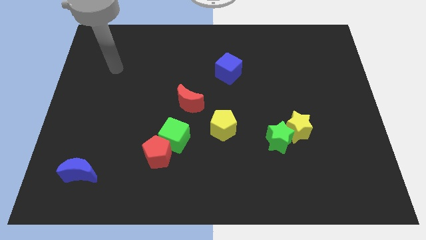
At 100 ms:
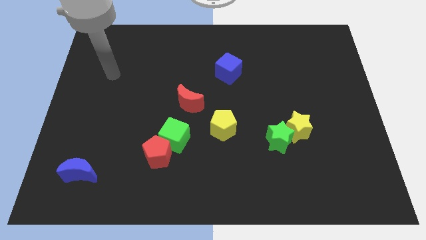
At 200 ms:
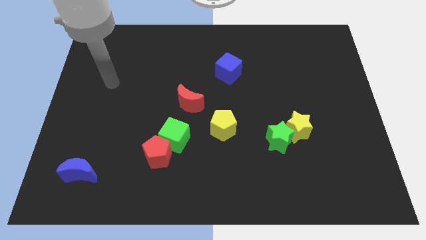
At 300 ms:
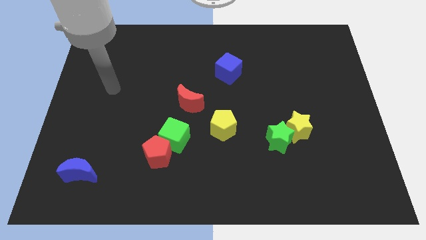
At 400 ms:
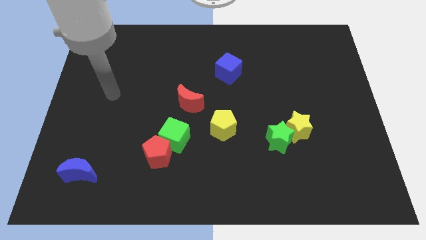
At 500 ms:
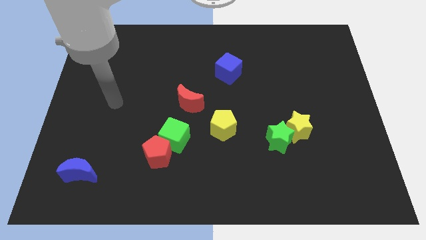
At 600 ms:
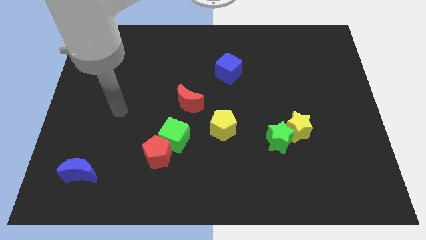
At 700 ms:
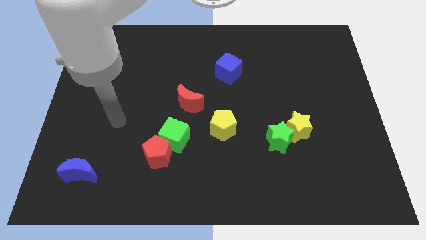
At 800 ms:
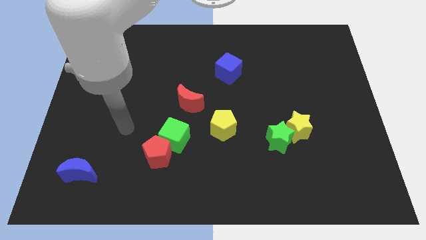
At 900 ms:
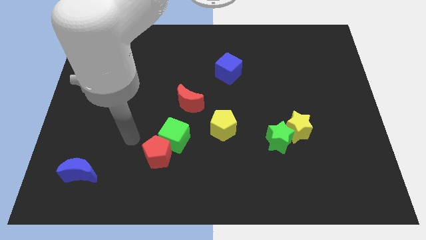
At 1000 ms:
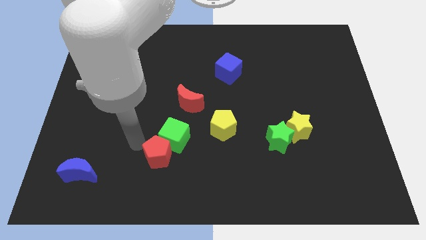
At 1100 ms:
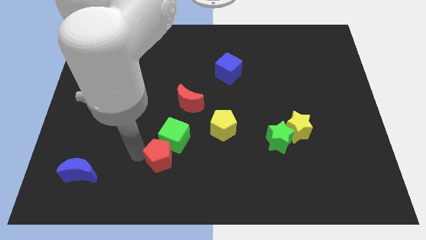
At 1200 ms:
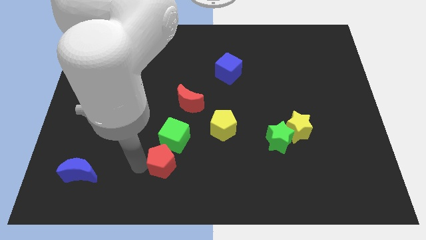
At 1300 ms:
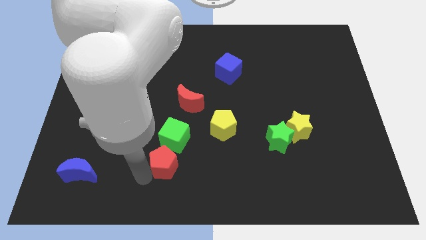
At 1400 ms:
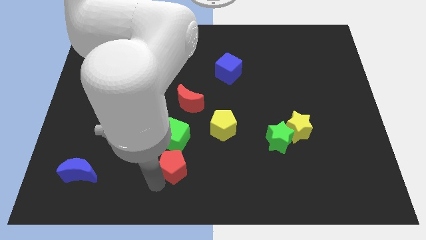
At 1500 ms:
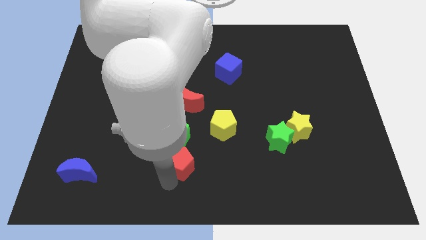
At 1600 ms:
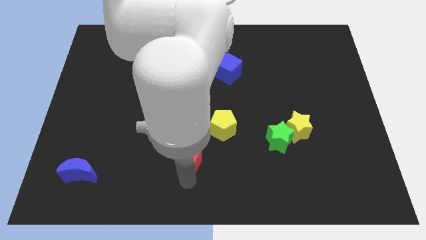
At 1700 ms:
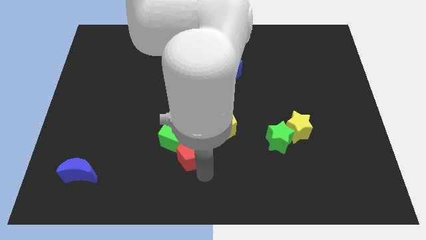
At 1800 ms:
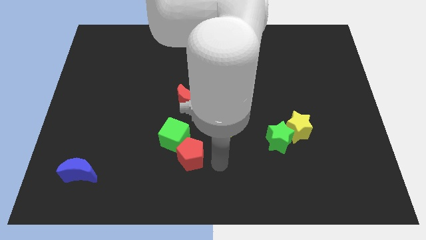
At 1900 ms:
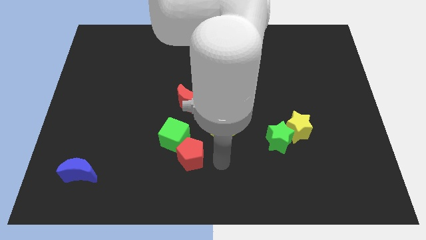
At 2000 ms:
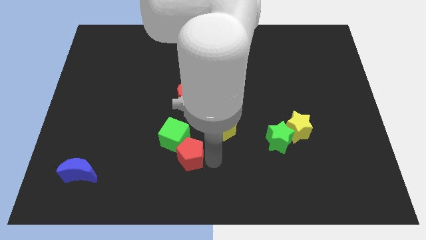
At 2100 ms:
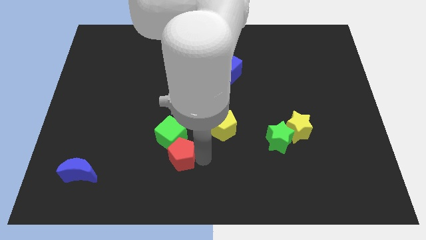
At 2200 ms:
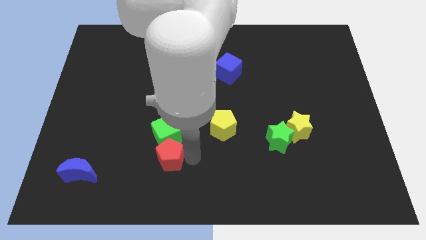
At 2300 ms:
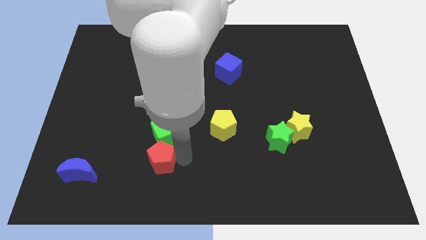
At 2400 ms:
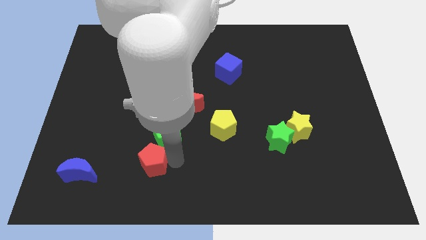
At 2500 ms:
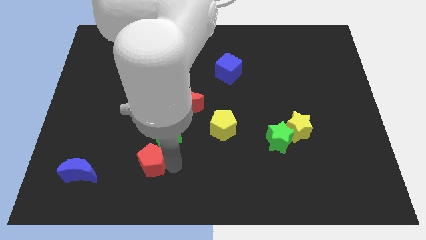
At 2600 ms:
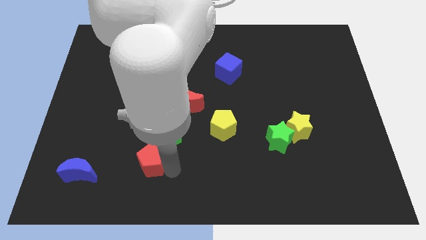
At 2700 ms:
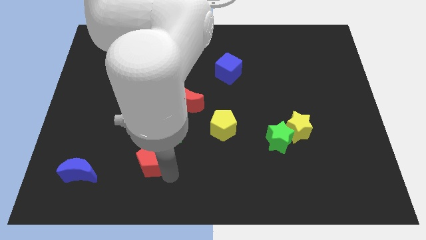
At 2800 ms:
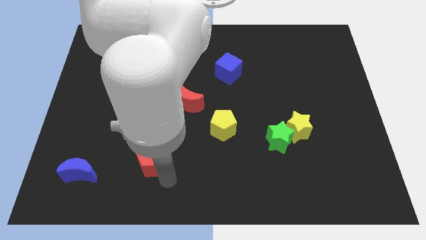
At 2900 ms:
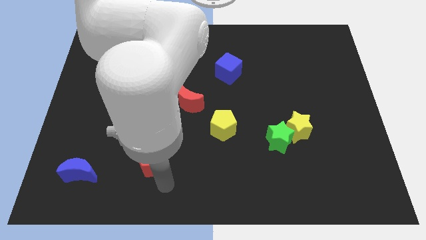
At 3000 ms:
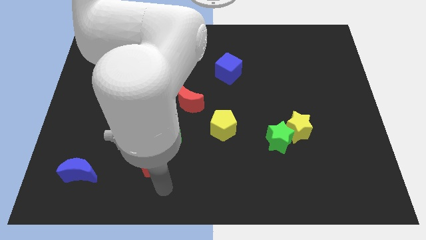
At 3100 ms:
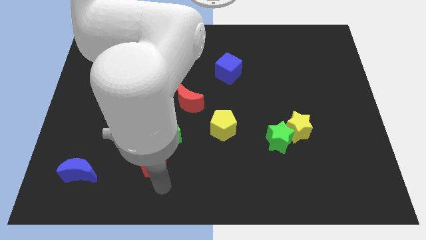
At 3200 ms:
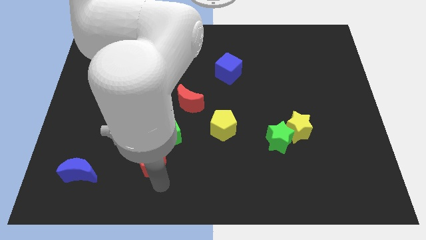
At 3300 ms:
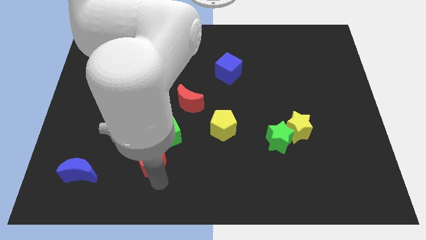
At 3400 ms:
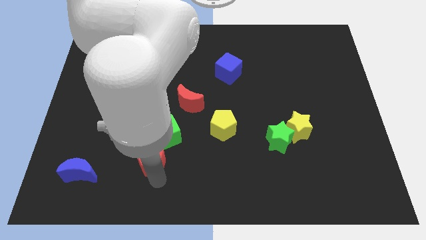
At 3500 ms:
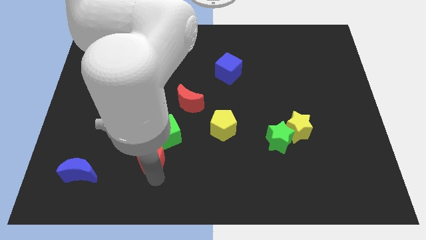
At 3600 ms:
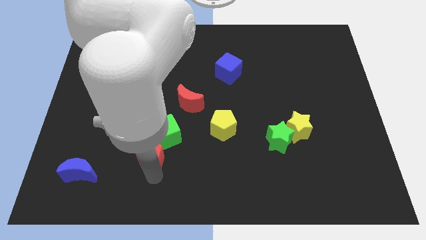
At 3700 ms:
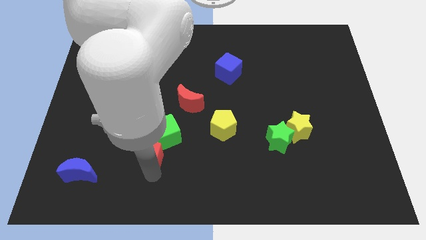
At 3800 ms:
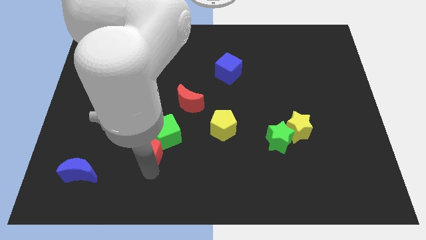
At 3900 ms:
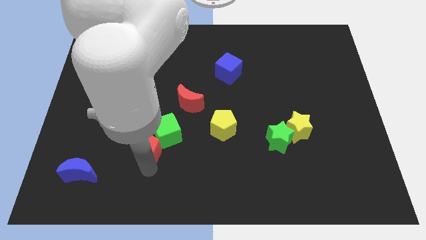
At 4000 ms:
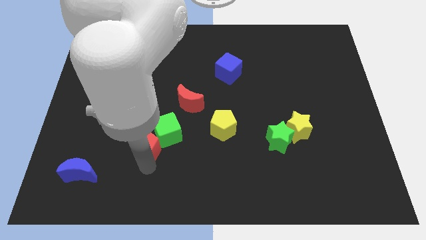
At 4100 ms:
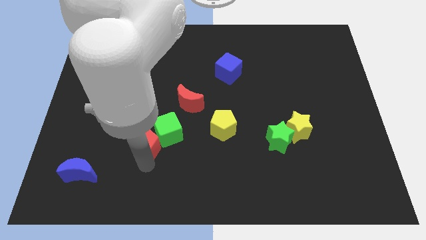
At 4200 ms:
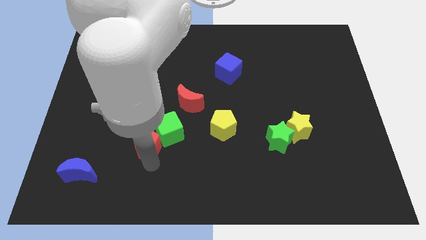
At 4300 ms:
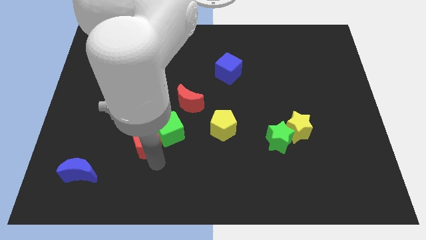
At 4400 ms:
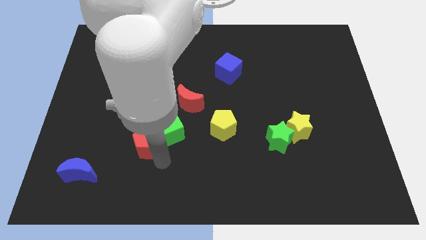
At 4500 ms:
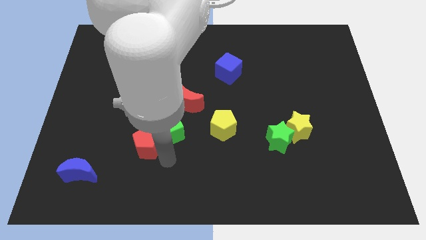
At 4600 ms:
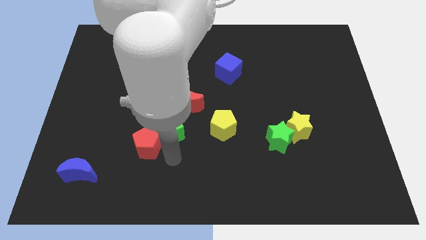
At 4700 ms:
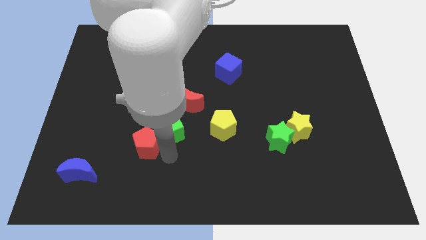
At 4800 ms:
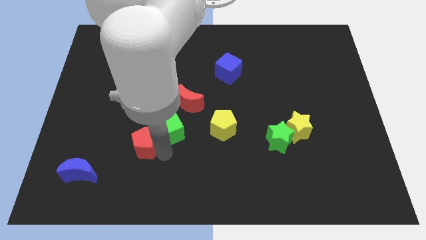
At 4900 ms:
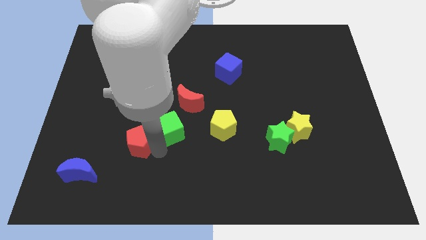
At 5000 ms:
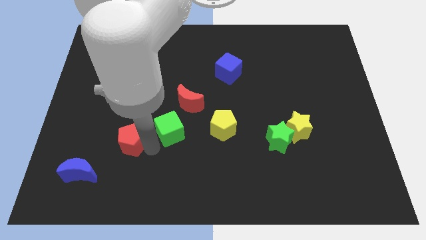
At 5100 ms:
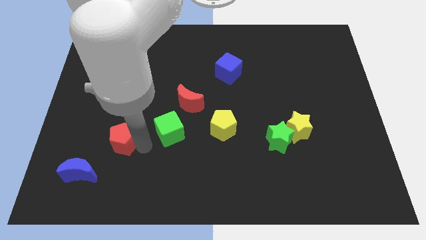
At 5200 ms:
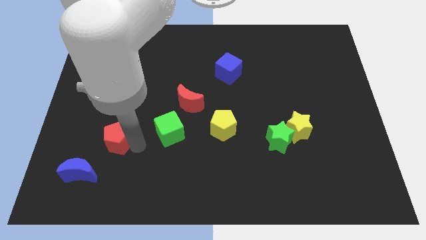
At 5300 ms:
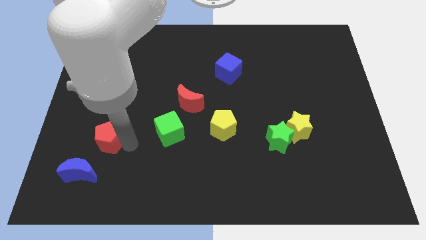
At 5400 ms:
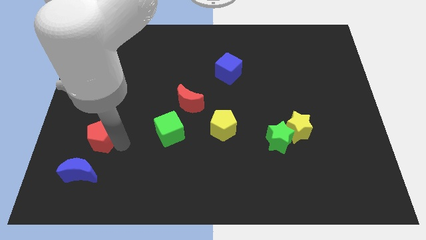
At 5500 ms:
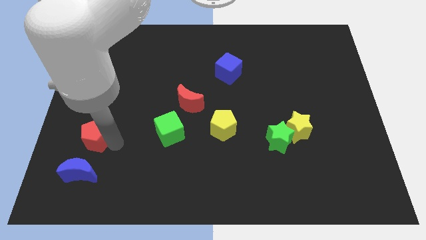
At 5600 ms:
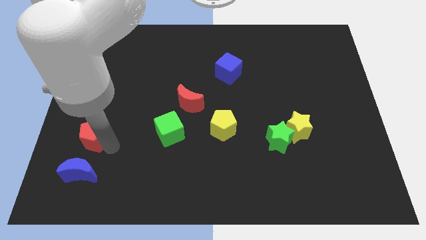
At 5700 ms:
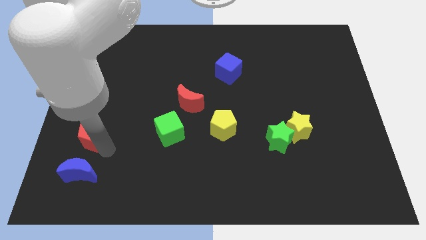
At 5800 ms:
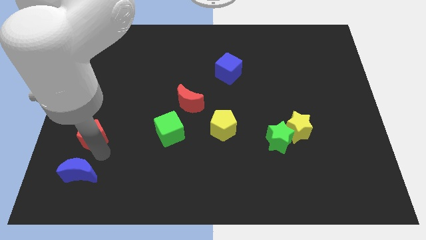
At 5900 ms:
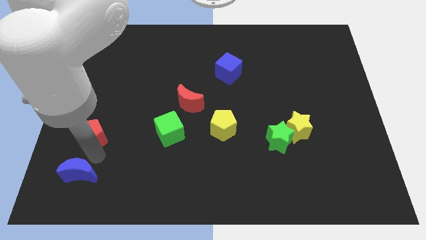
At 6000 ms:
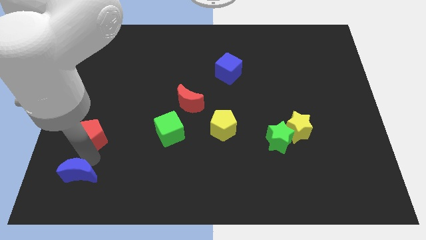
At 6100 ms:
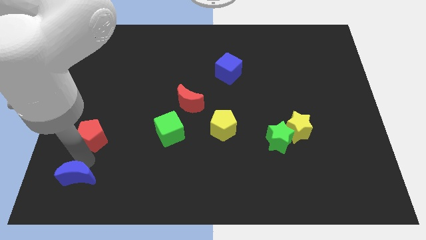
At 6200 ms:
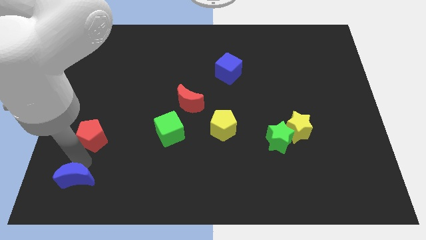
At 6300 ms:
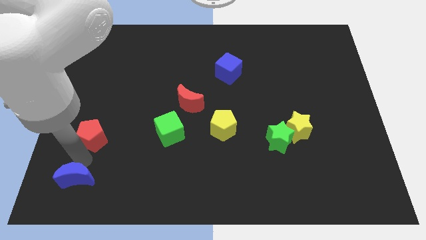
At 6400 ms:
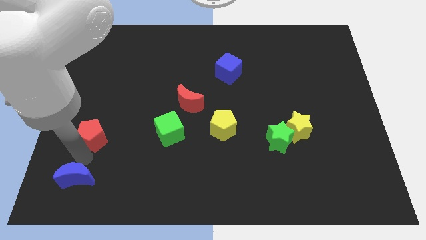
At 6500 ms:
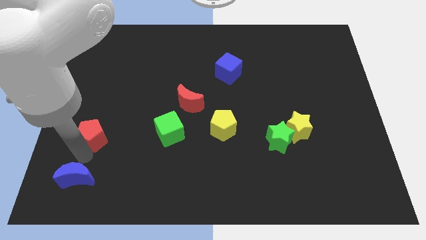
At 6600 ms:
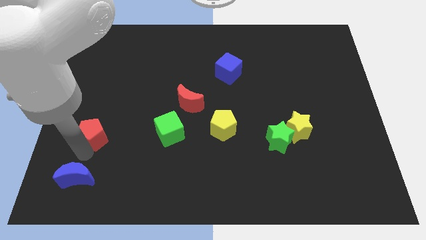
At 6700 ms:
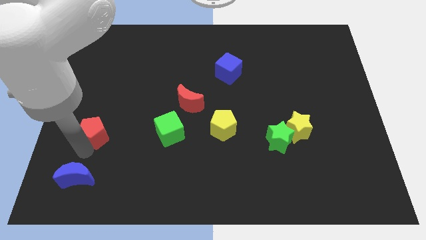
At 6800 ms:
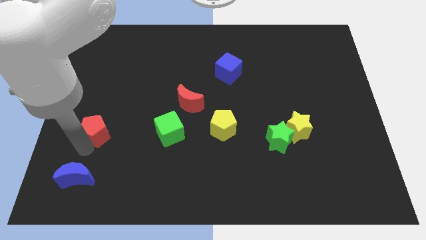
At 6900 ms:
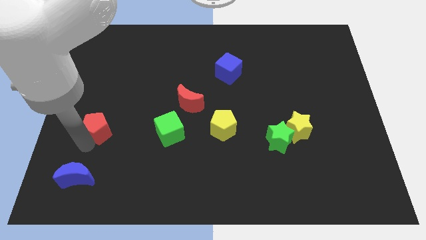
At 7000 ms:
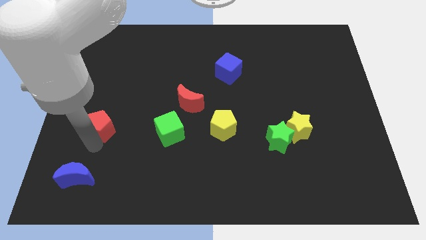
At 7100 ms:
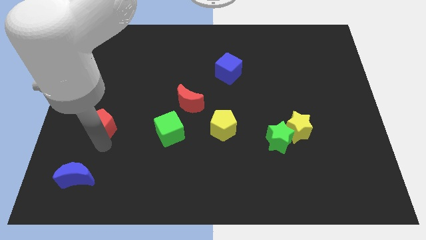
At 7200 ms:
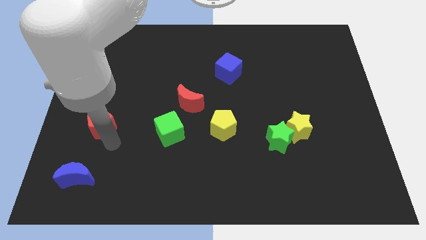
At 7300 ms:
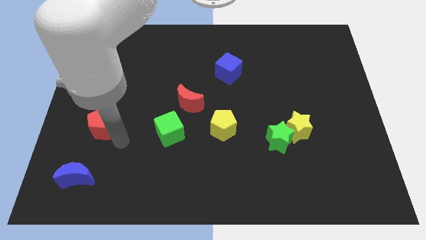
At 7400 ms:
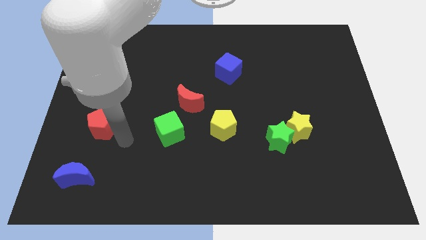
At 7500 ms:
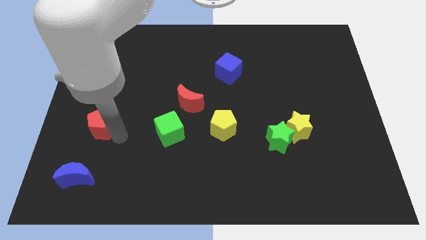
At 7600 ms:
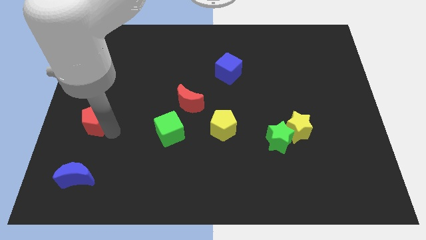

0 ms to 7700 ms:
move the red pentagon to the left side of the board
